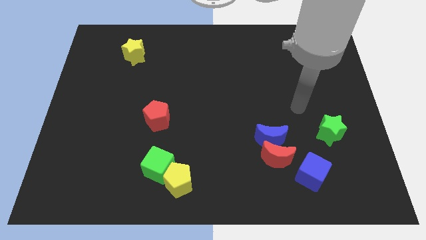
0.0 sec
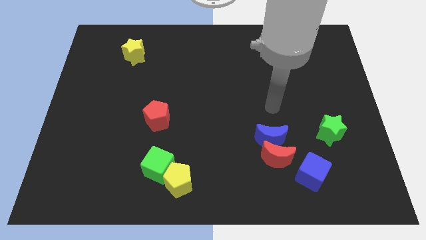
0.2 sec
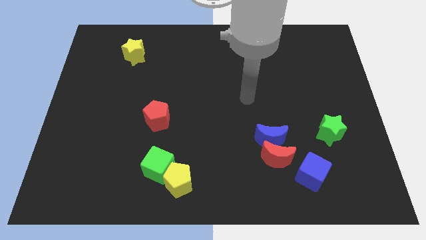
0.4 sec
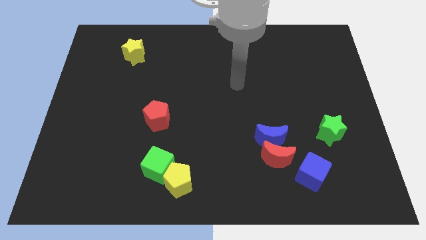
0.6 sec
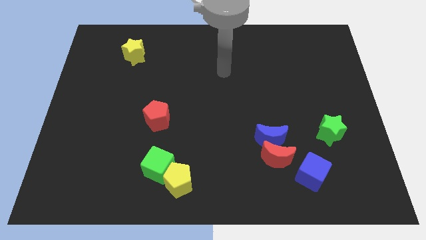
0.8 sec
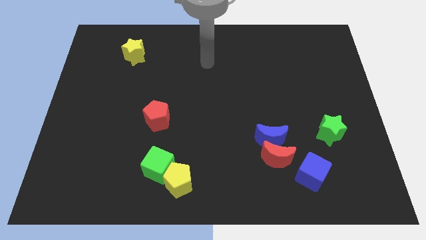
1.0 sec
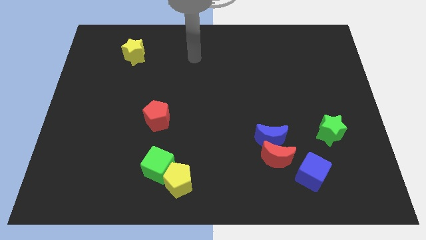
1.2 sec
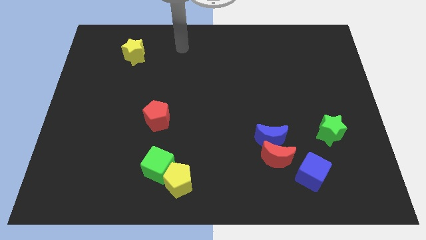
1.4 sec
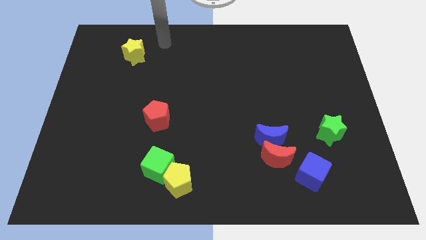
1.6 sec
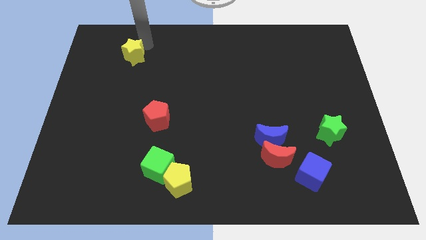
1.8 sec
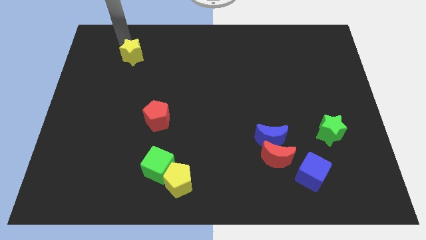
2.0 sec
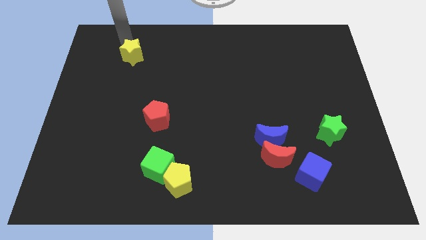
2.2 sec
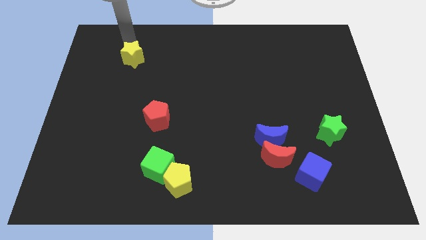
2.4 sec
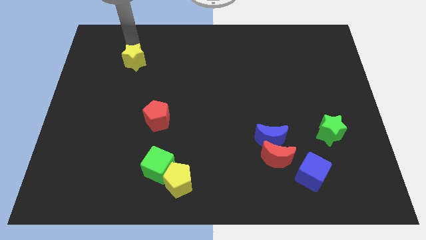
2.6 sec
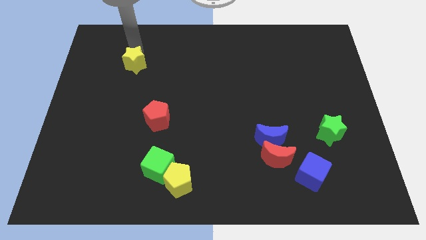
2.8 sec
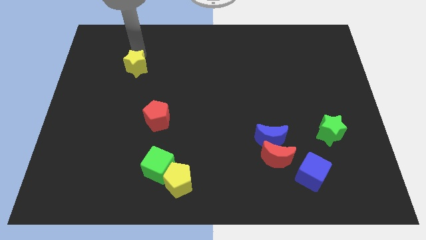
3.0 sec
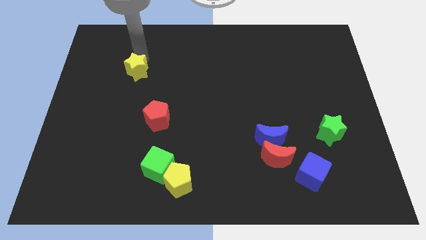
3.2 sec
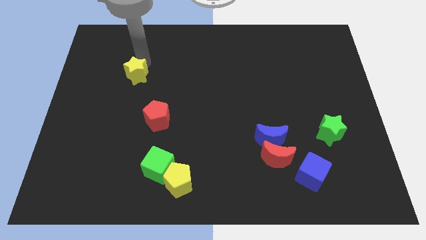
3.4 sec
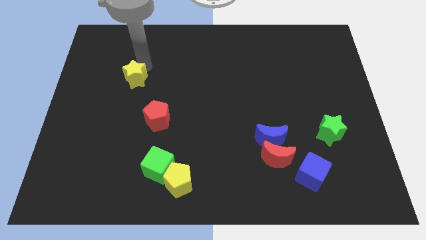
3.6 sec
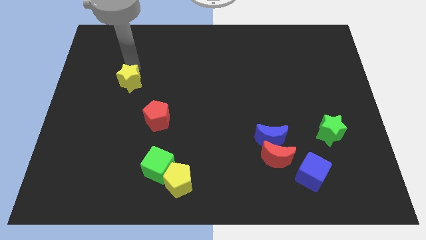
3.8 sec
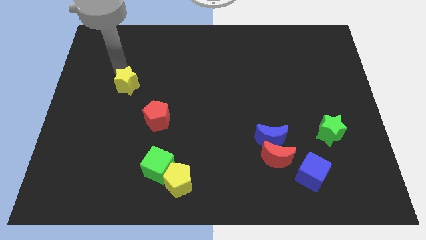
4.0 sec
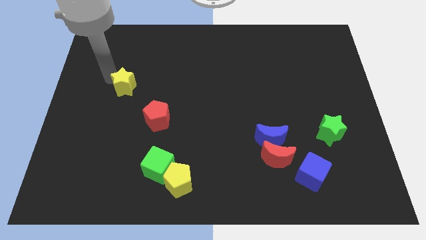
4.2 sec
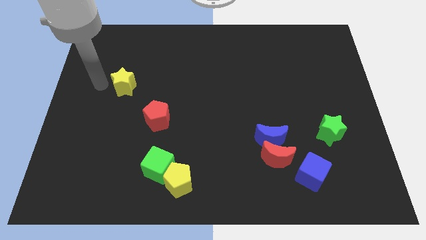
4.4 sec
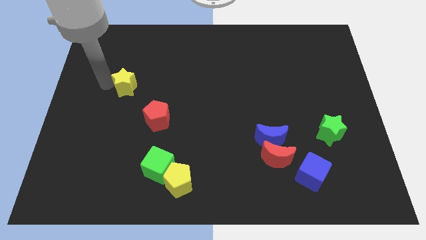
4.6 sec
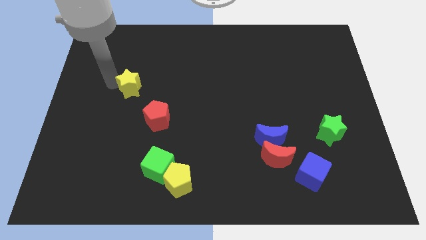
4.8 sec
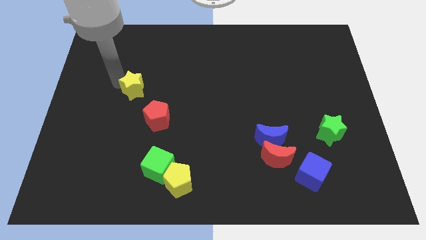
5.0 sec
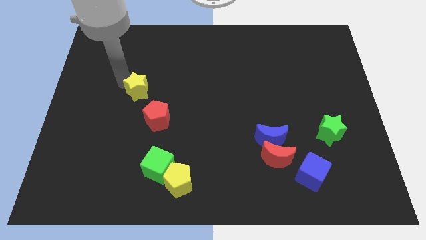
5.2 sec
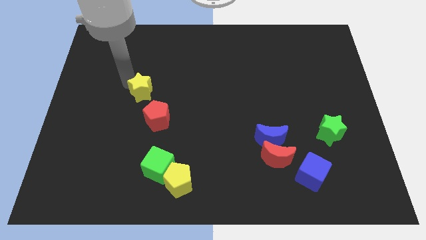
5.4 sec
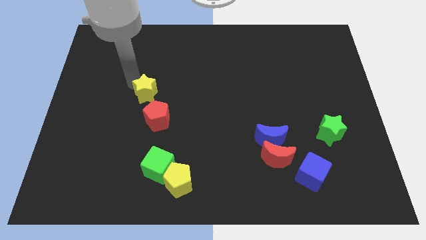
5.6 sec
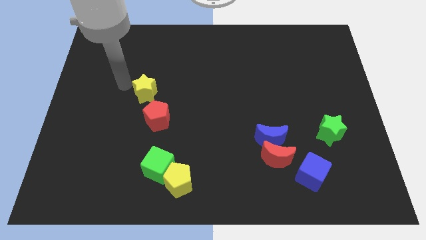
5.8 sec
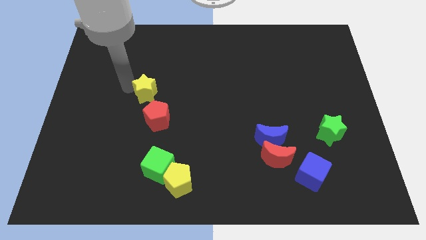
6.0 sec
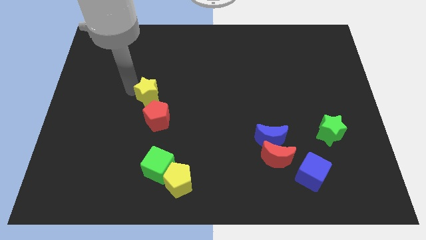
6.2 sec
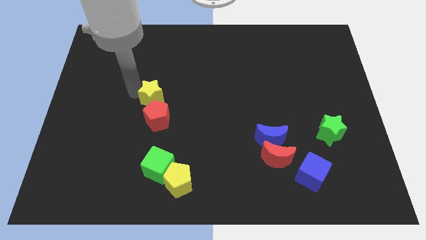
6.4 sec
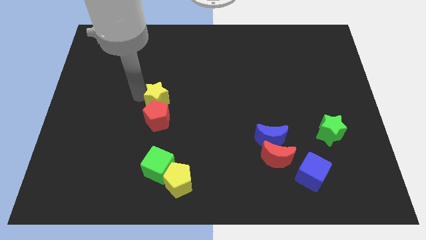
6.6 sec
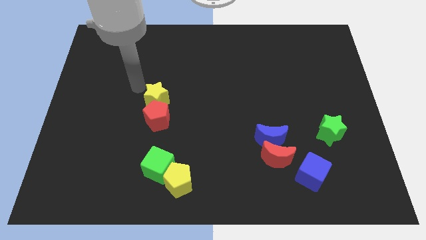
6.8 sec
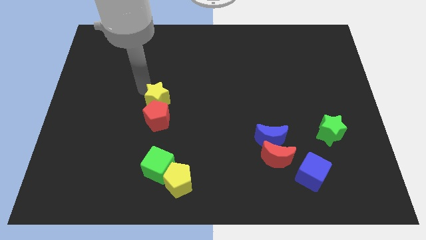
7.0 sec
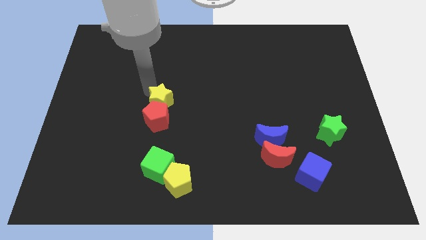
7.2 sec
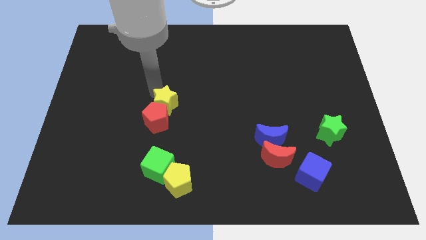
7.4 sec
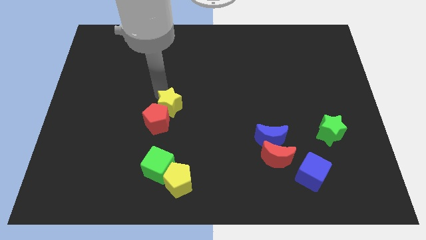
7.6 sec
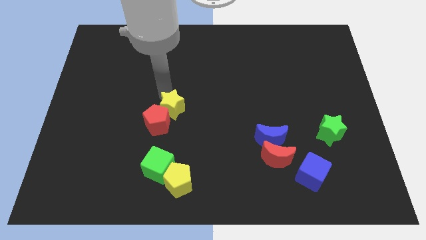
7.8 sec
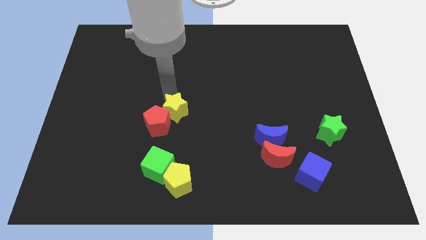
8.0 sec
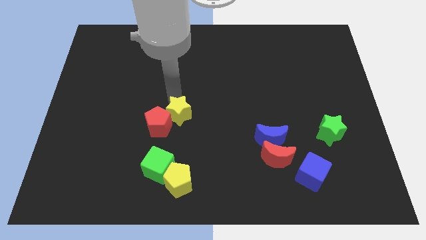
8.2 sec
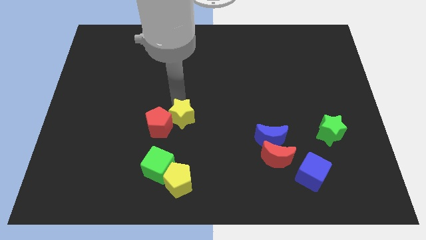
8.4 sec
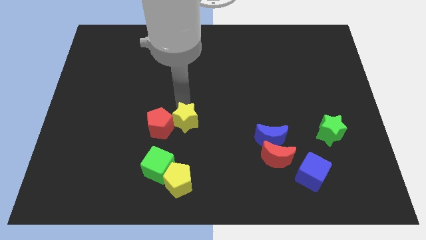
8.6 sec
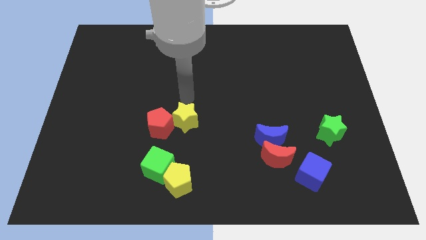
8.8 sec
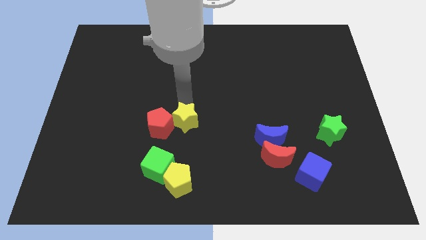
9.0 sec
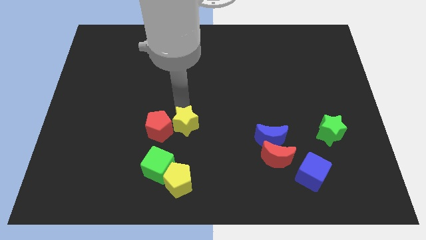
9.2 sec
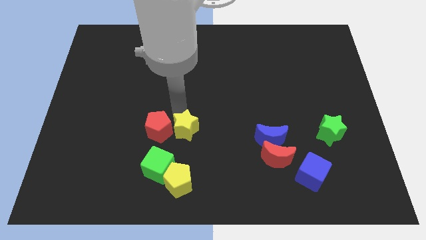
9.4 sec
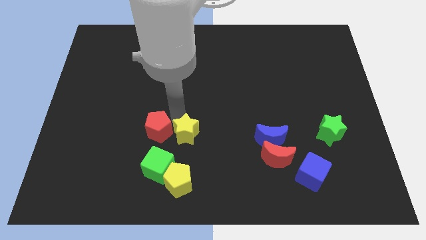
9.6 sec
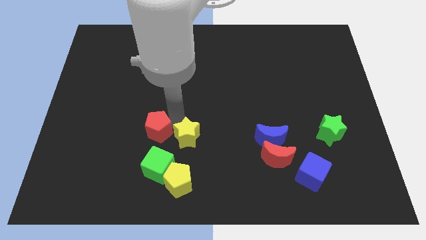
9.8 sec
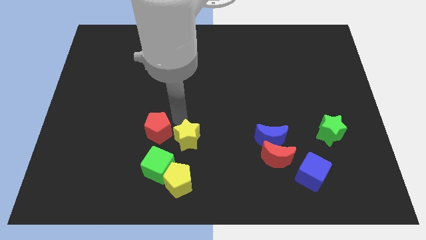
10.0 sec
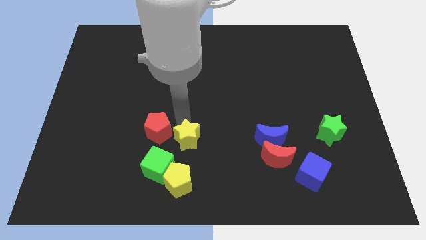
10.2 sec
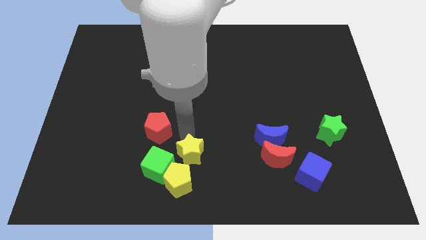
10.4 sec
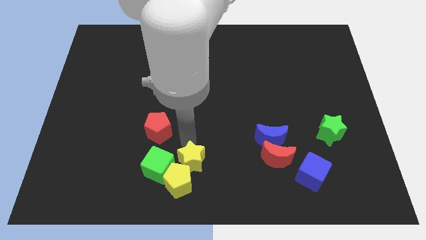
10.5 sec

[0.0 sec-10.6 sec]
push the yellow star to the bottom

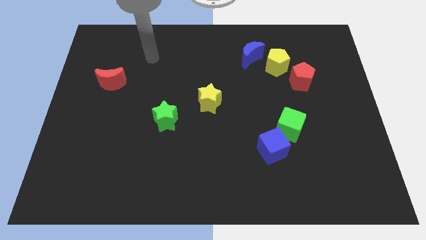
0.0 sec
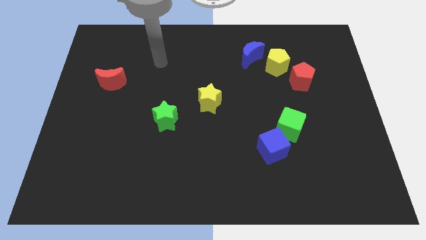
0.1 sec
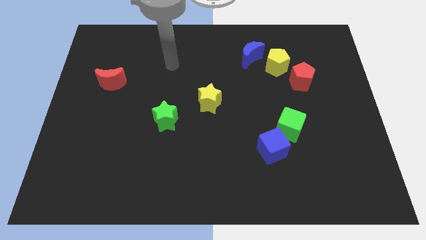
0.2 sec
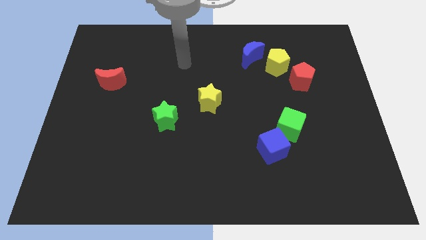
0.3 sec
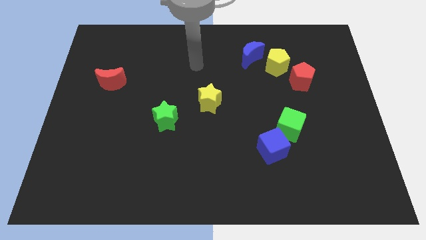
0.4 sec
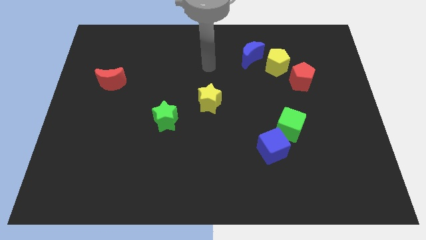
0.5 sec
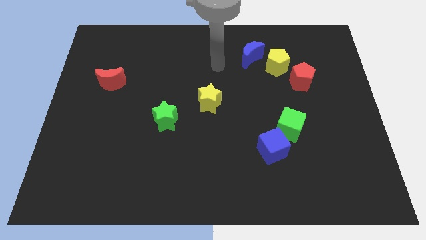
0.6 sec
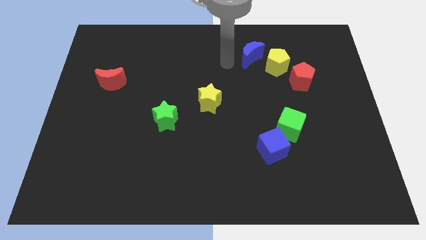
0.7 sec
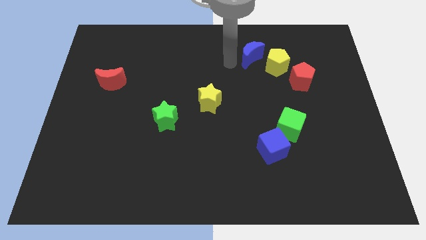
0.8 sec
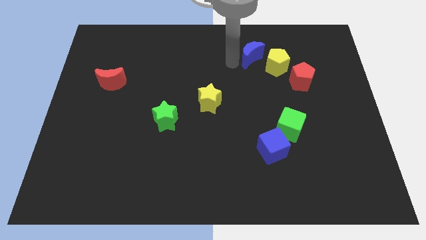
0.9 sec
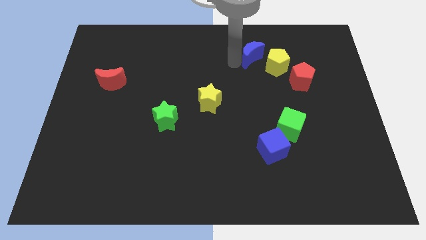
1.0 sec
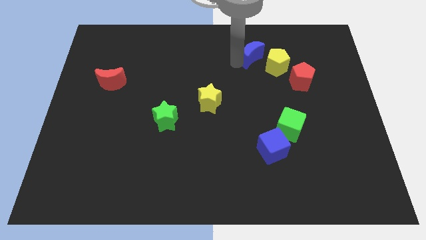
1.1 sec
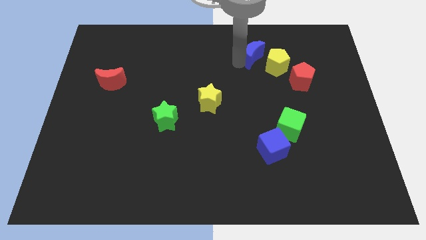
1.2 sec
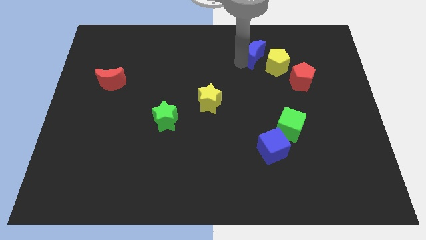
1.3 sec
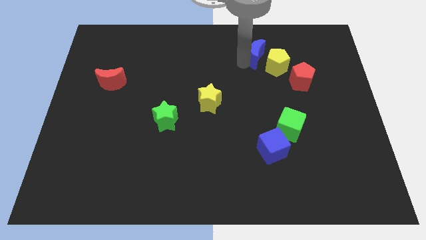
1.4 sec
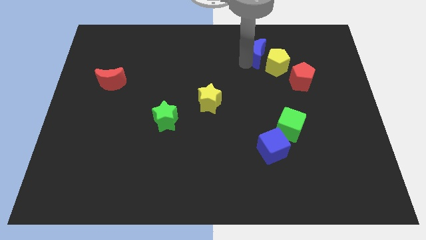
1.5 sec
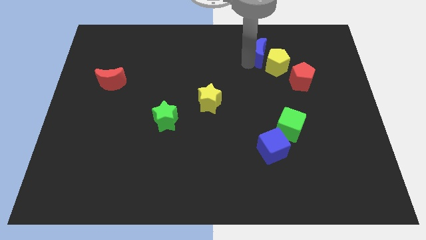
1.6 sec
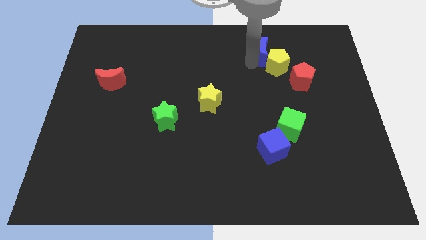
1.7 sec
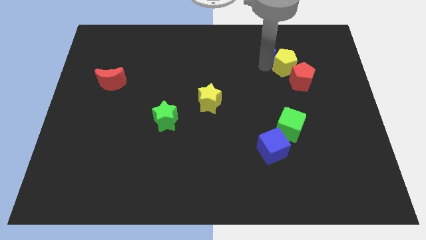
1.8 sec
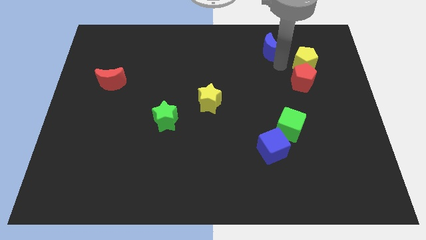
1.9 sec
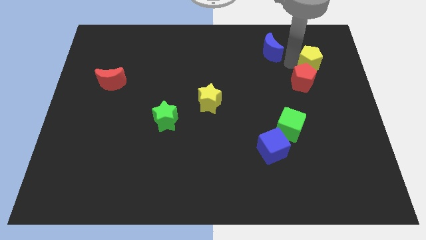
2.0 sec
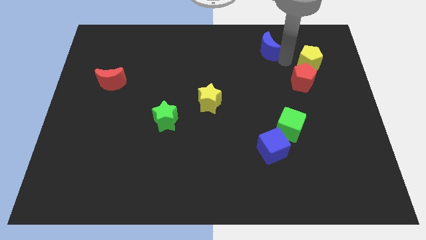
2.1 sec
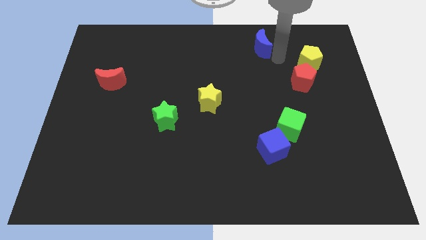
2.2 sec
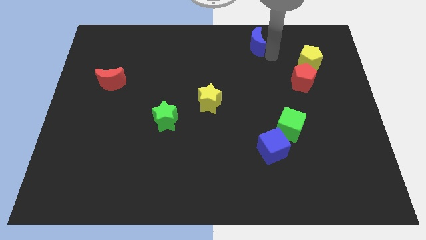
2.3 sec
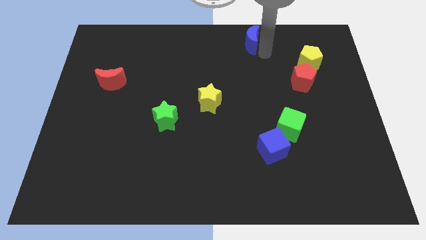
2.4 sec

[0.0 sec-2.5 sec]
push the blue moon to the towards your base
